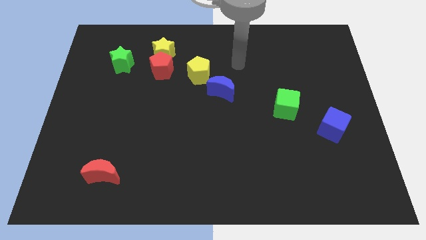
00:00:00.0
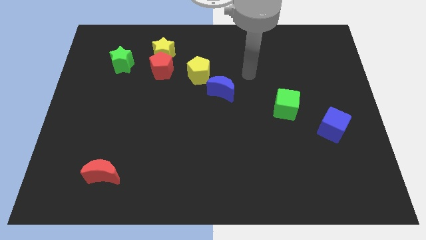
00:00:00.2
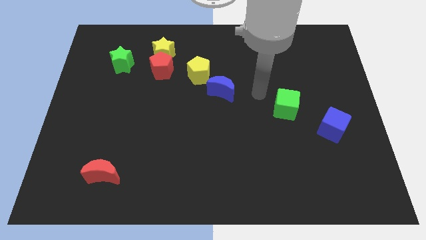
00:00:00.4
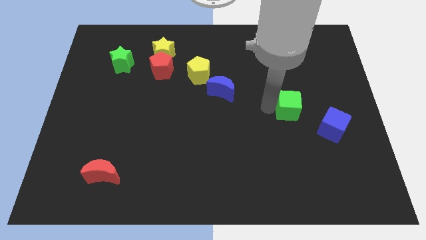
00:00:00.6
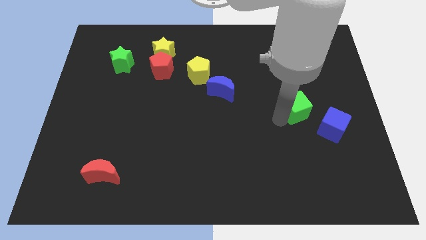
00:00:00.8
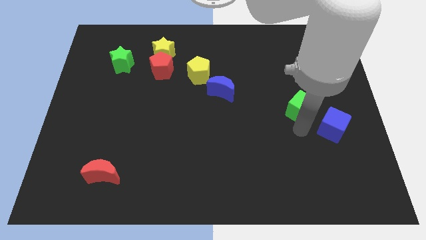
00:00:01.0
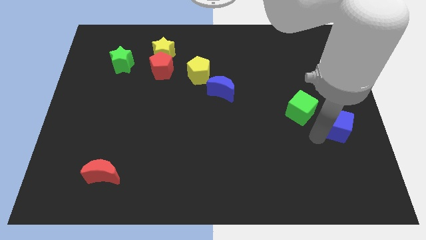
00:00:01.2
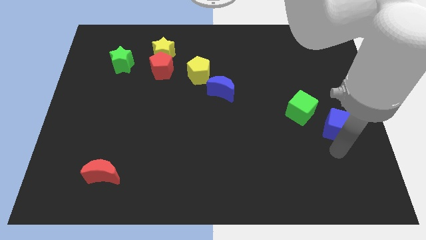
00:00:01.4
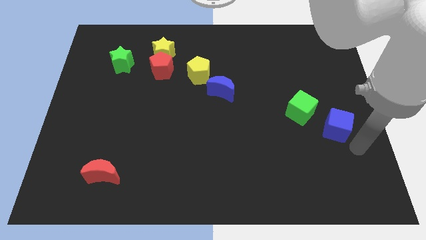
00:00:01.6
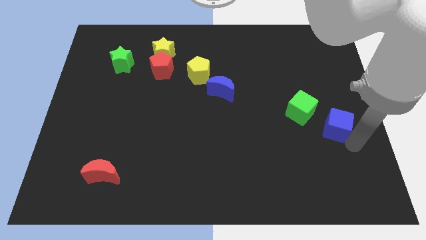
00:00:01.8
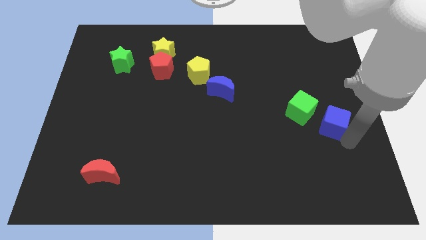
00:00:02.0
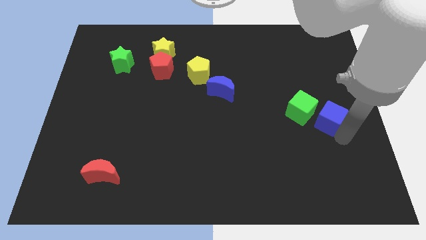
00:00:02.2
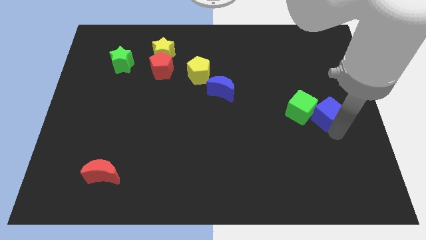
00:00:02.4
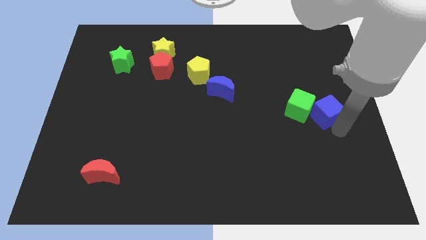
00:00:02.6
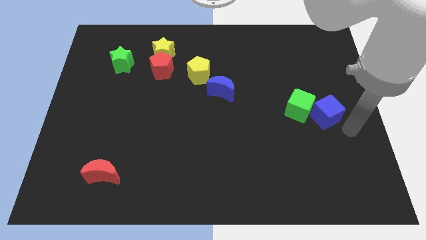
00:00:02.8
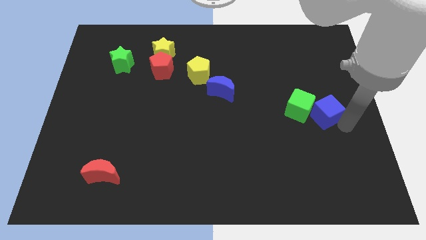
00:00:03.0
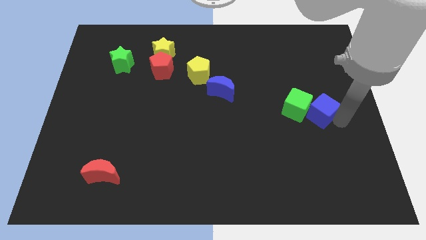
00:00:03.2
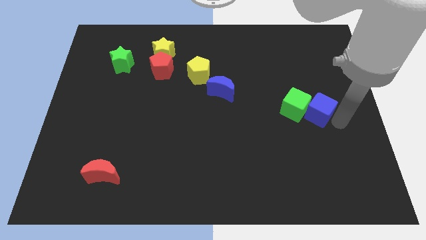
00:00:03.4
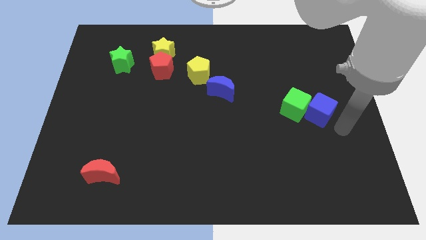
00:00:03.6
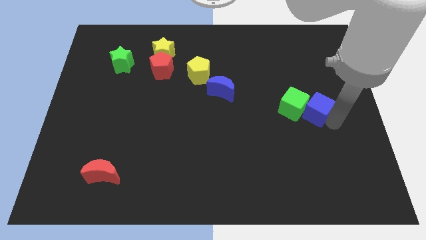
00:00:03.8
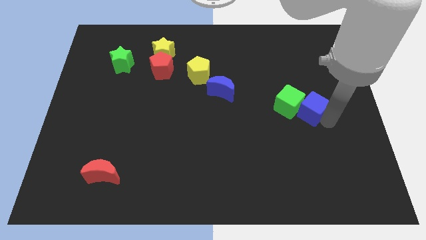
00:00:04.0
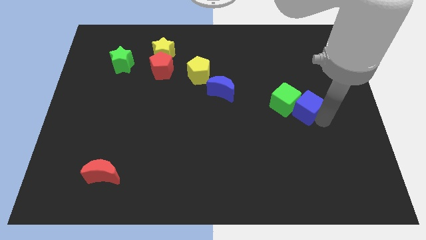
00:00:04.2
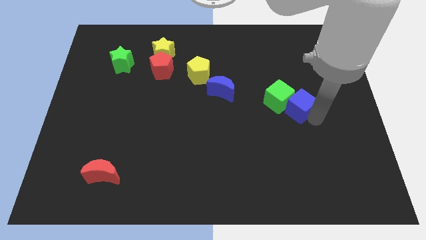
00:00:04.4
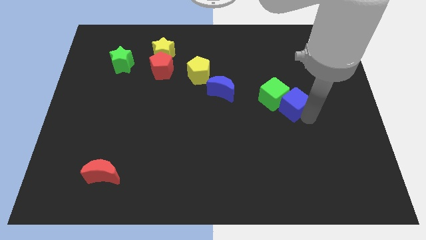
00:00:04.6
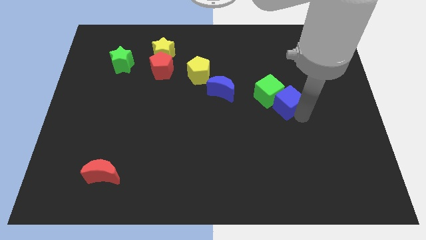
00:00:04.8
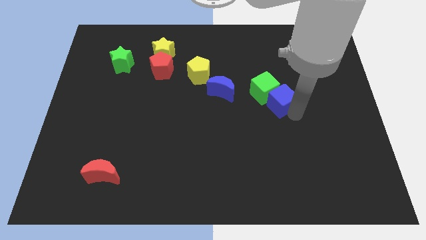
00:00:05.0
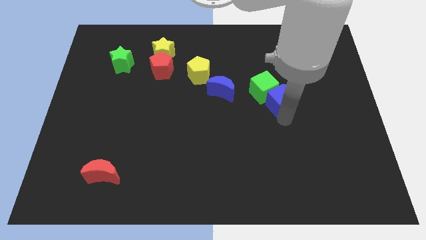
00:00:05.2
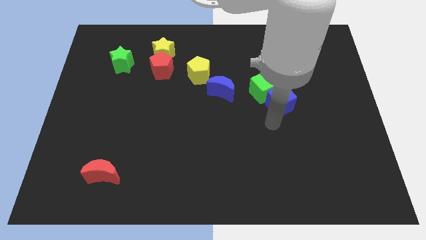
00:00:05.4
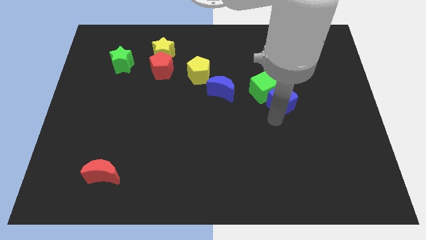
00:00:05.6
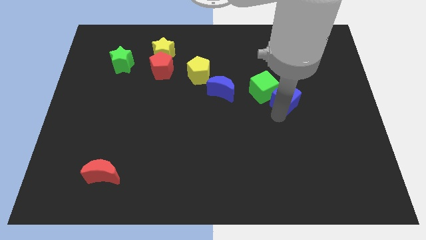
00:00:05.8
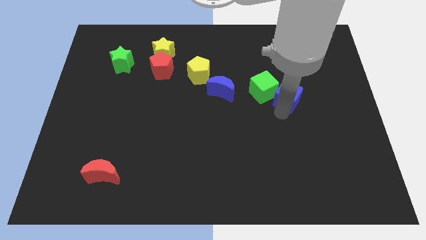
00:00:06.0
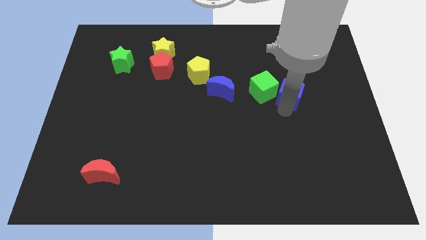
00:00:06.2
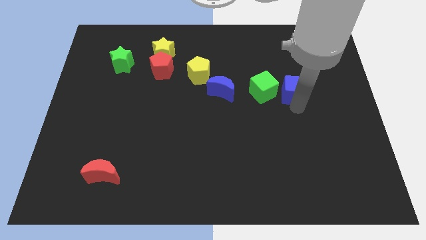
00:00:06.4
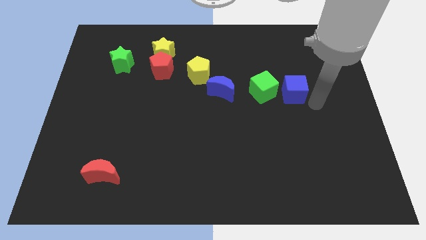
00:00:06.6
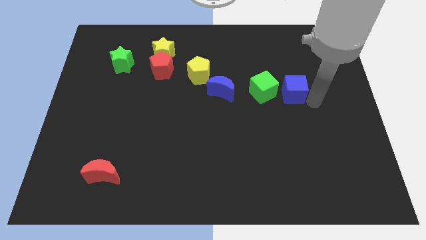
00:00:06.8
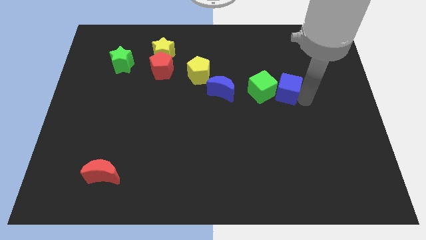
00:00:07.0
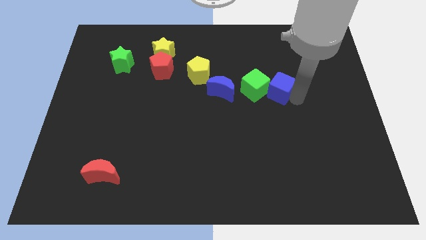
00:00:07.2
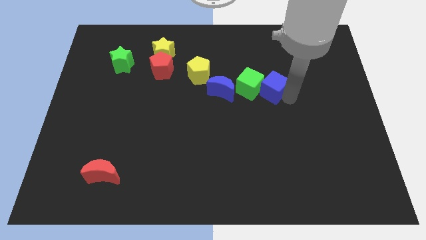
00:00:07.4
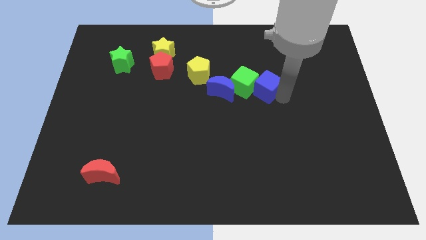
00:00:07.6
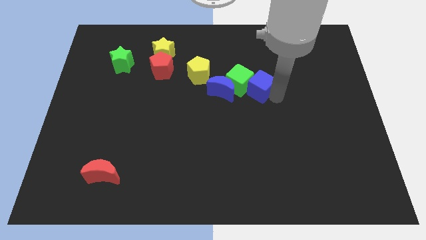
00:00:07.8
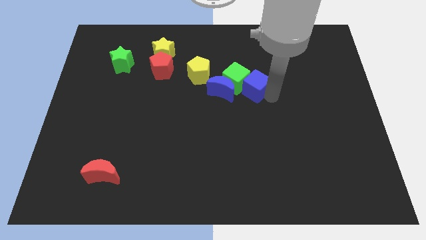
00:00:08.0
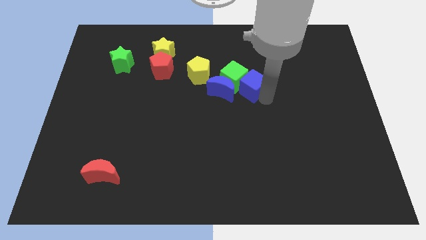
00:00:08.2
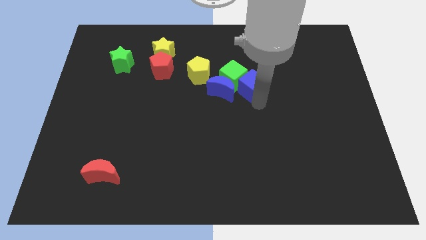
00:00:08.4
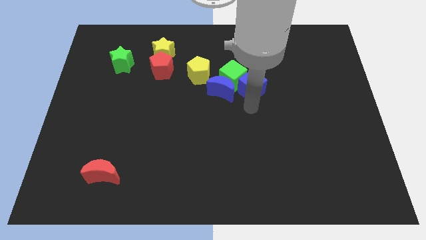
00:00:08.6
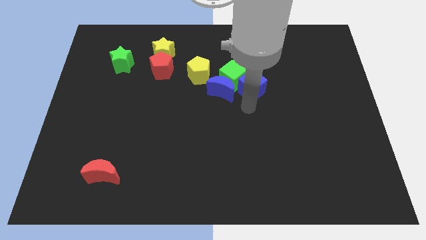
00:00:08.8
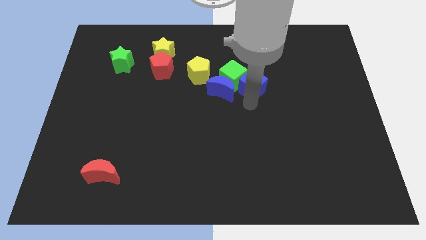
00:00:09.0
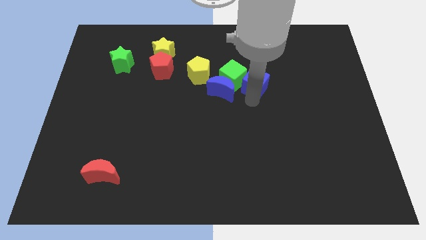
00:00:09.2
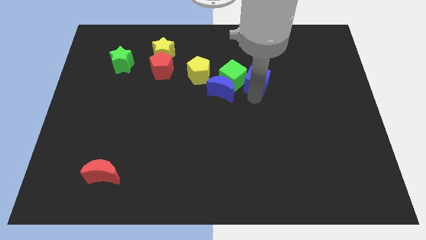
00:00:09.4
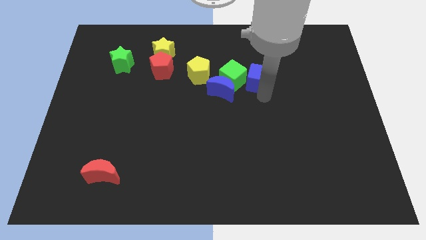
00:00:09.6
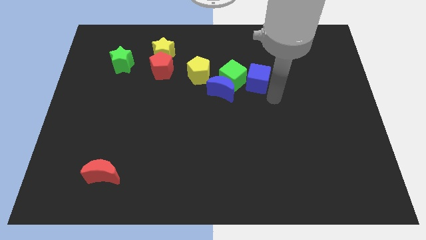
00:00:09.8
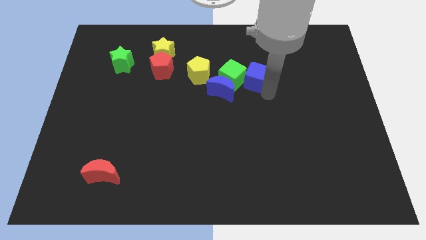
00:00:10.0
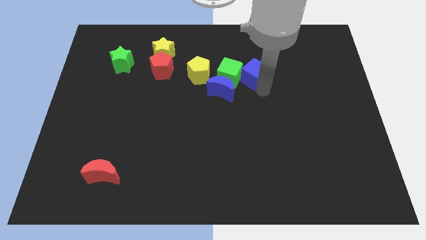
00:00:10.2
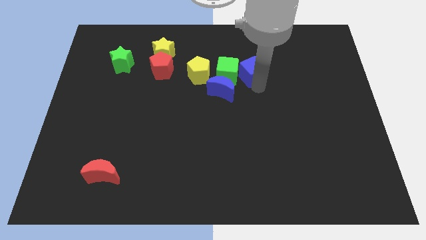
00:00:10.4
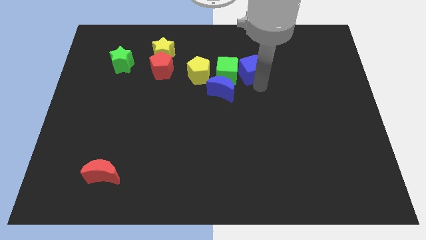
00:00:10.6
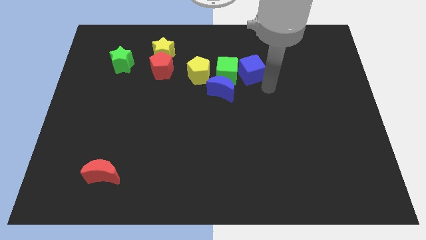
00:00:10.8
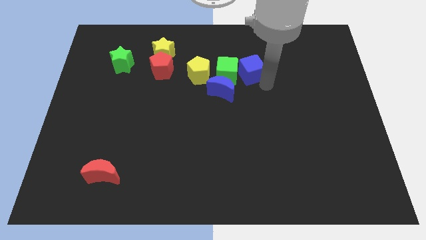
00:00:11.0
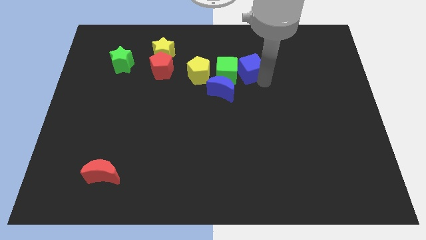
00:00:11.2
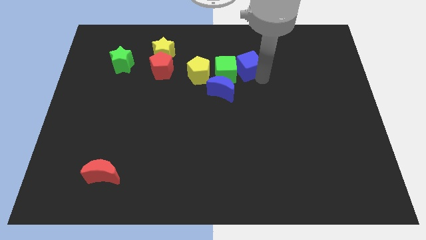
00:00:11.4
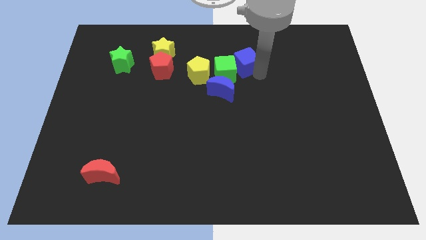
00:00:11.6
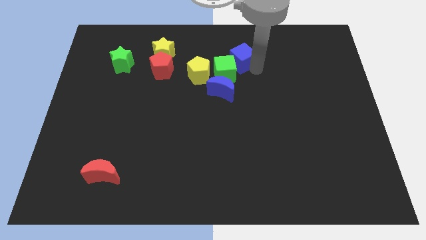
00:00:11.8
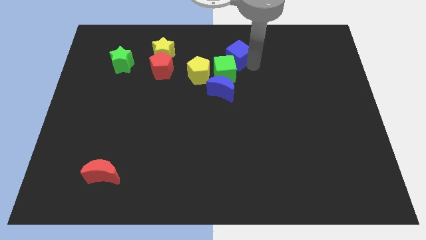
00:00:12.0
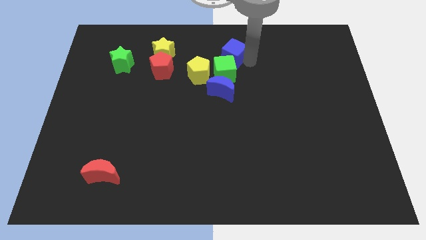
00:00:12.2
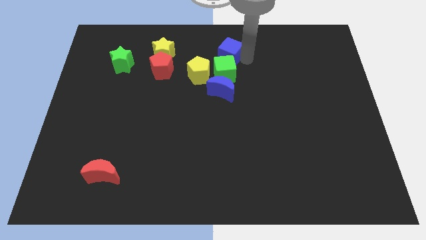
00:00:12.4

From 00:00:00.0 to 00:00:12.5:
move the blue cube to the top side
